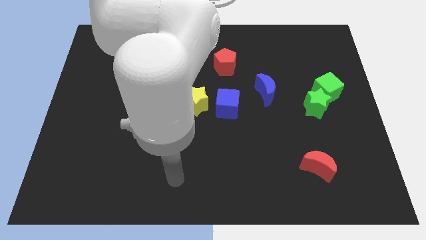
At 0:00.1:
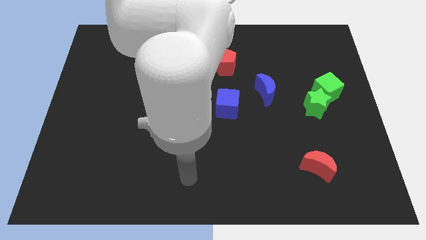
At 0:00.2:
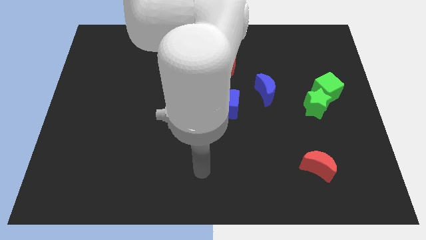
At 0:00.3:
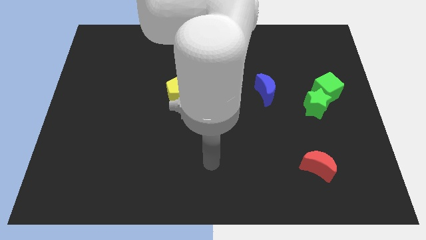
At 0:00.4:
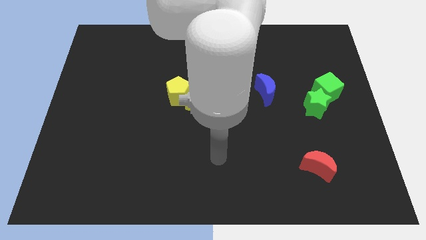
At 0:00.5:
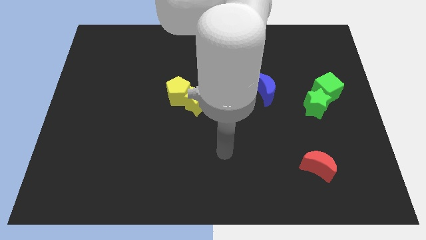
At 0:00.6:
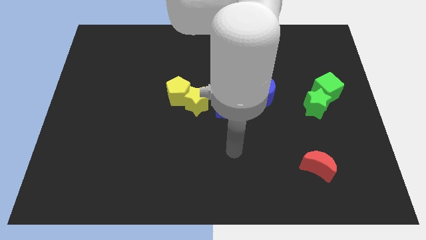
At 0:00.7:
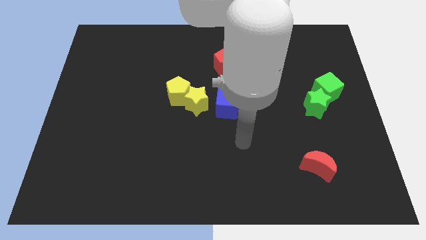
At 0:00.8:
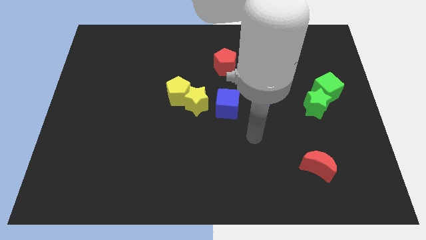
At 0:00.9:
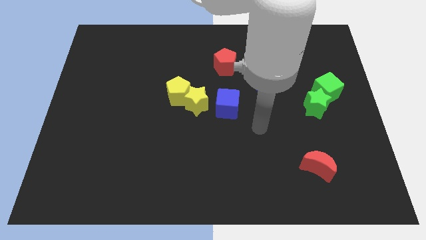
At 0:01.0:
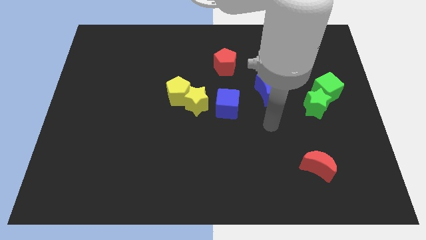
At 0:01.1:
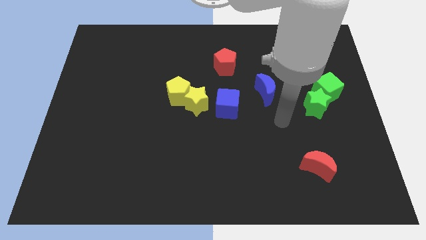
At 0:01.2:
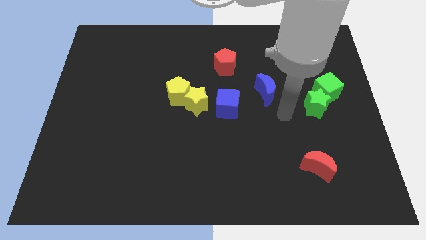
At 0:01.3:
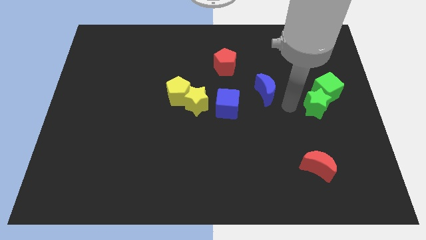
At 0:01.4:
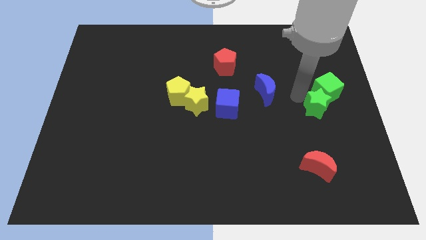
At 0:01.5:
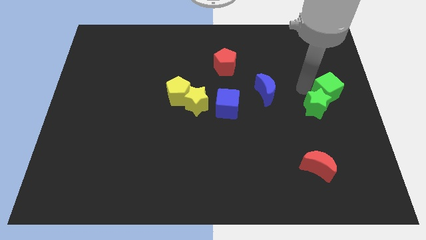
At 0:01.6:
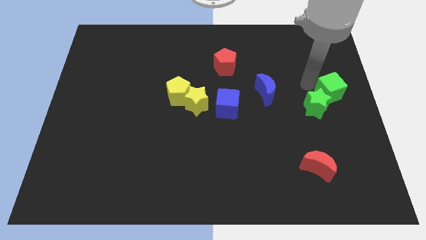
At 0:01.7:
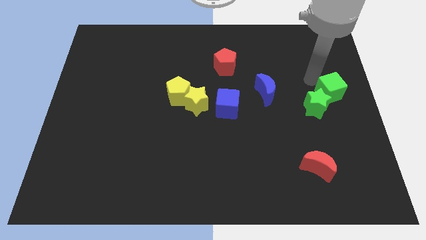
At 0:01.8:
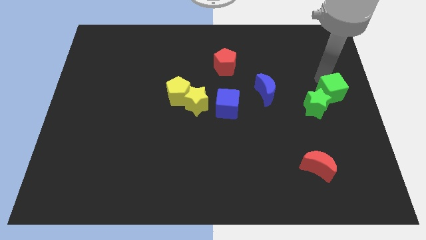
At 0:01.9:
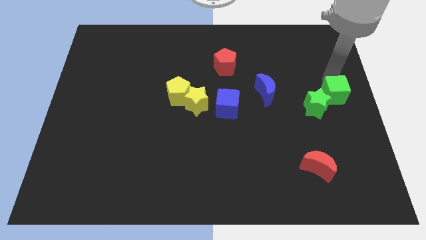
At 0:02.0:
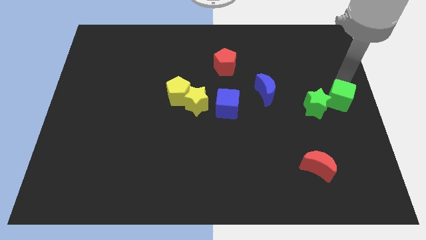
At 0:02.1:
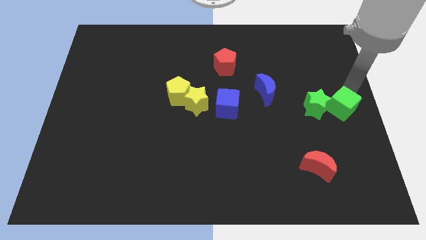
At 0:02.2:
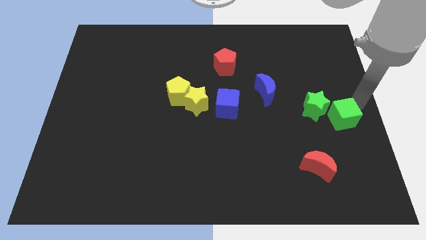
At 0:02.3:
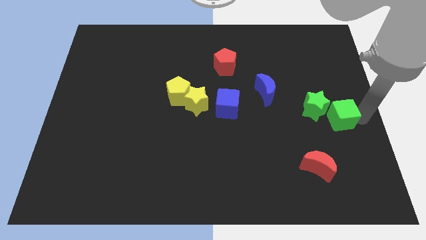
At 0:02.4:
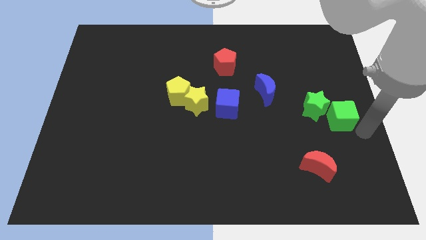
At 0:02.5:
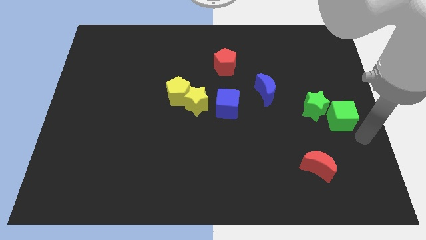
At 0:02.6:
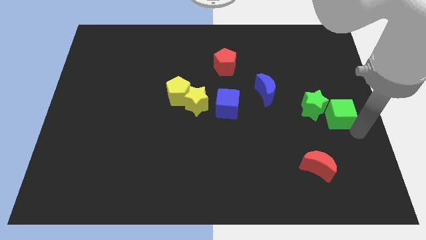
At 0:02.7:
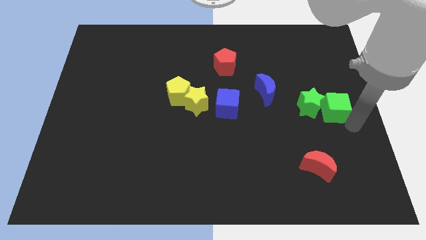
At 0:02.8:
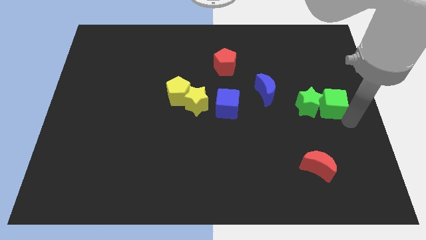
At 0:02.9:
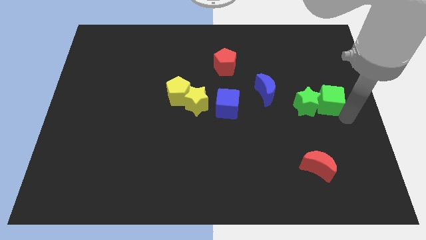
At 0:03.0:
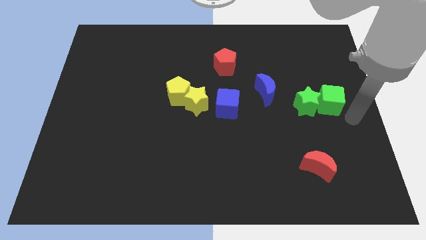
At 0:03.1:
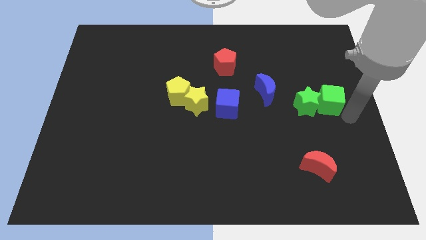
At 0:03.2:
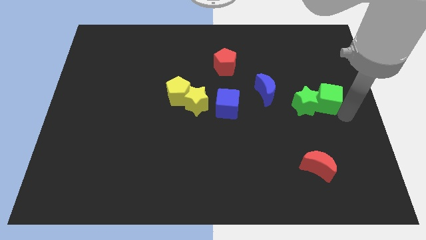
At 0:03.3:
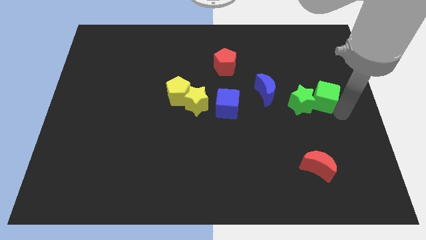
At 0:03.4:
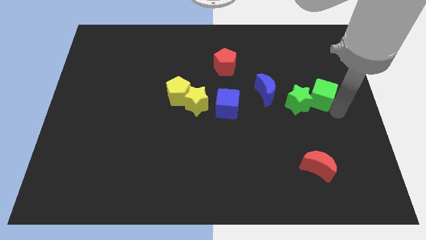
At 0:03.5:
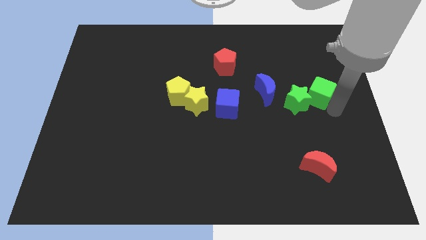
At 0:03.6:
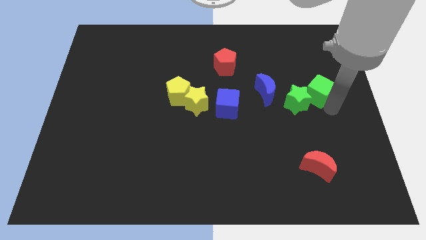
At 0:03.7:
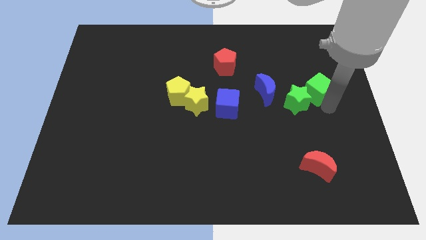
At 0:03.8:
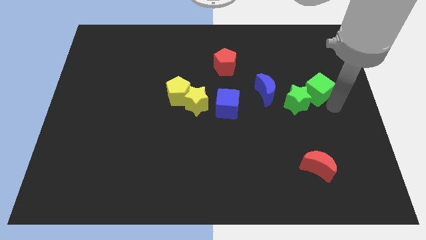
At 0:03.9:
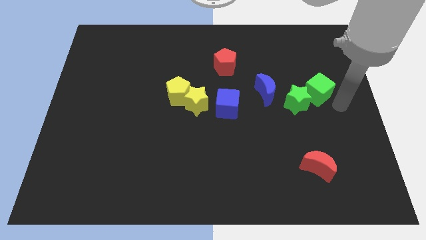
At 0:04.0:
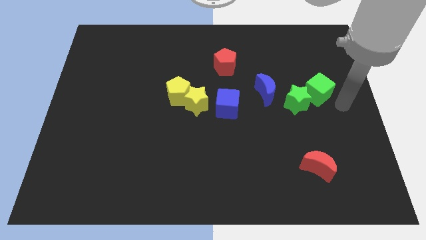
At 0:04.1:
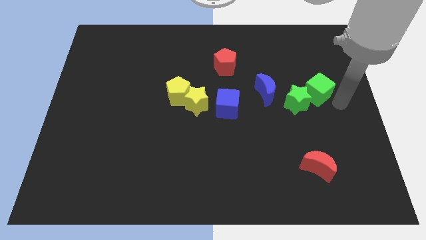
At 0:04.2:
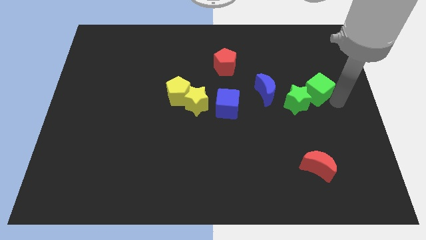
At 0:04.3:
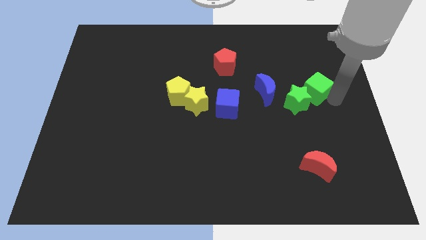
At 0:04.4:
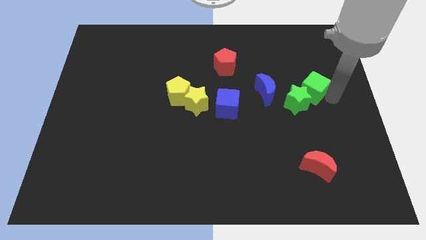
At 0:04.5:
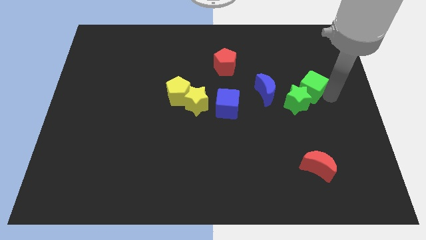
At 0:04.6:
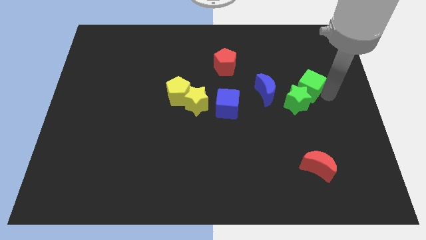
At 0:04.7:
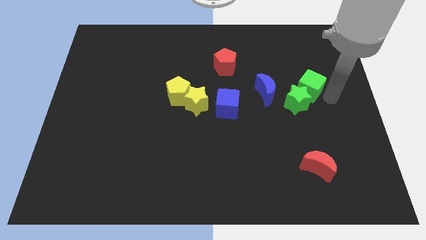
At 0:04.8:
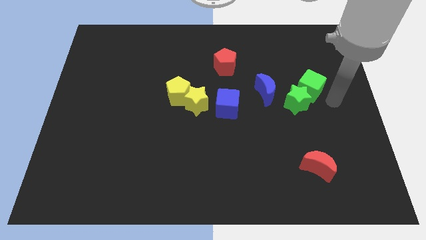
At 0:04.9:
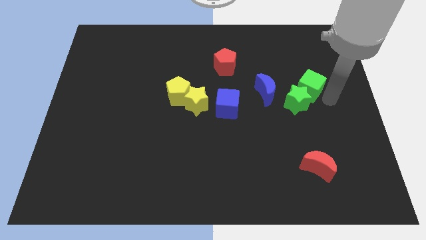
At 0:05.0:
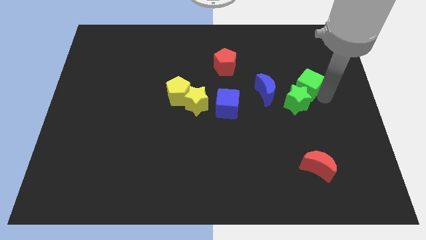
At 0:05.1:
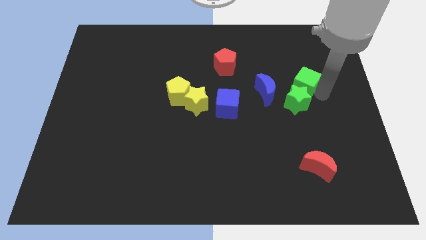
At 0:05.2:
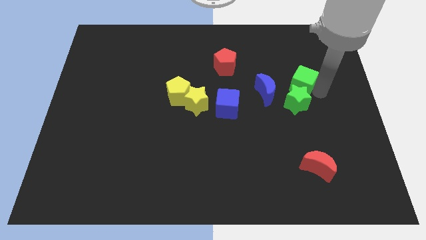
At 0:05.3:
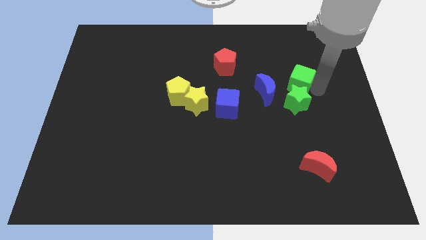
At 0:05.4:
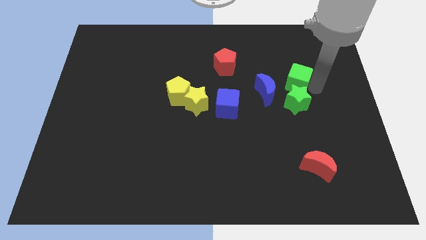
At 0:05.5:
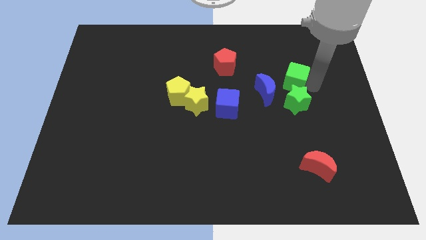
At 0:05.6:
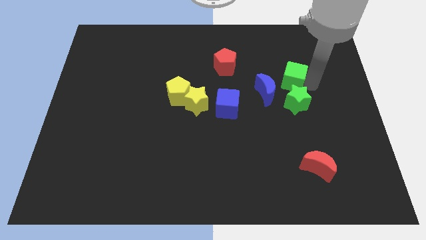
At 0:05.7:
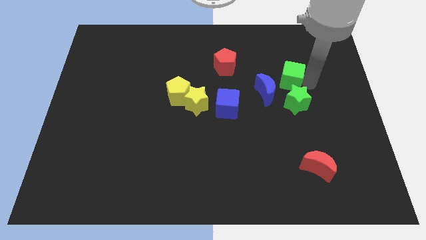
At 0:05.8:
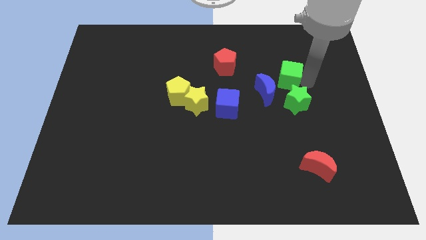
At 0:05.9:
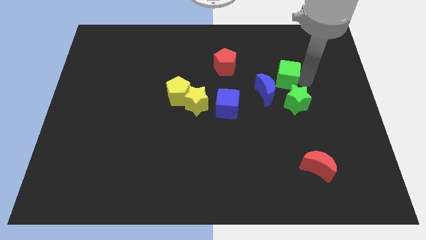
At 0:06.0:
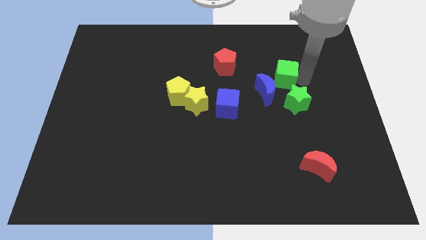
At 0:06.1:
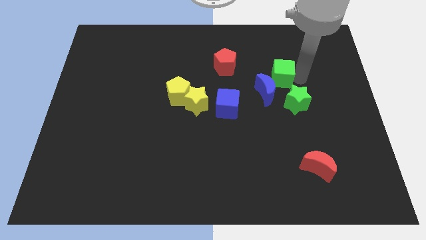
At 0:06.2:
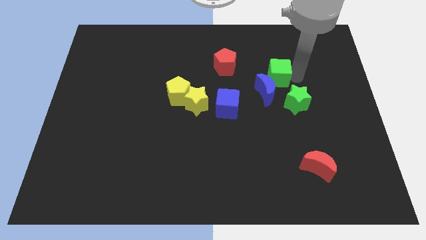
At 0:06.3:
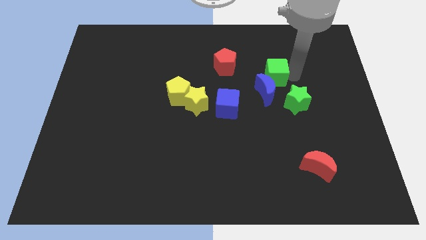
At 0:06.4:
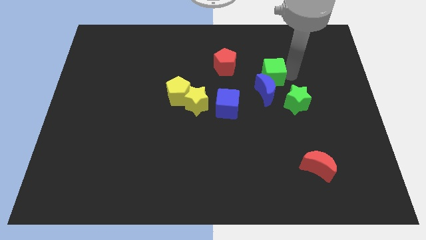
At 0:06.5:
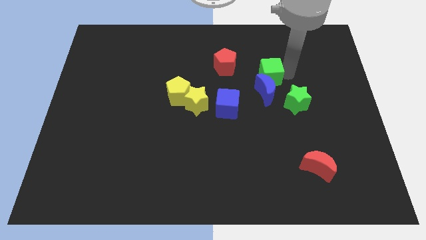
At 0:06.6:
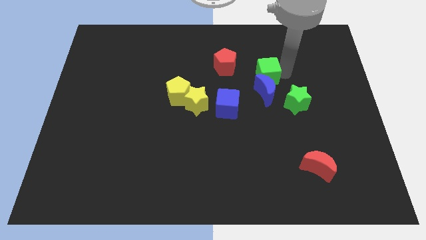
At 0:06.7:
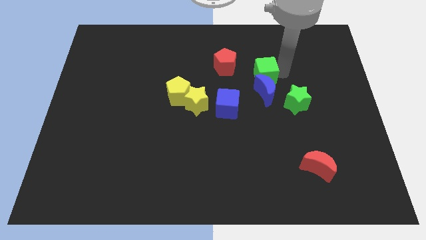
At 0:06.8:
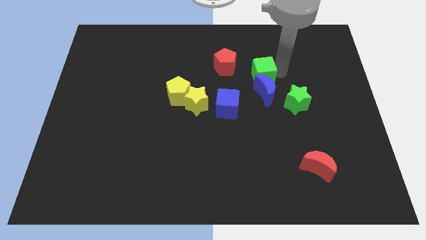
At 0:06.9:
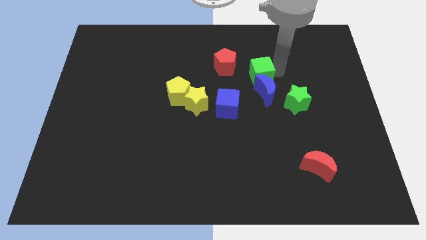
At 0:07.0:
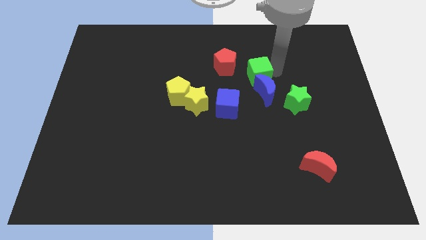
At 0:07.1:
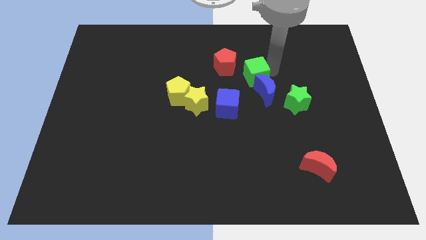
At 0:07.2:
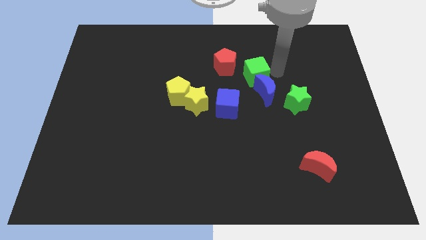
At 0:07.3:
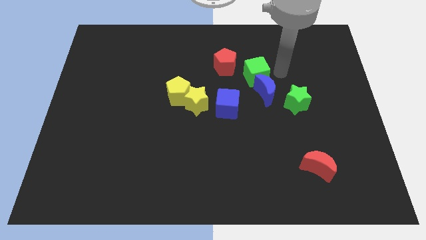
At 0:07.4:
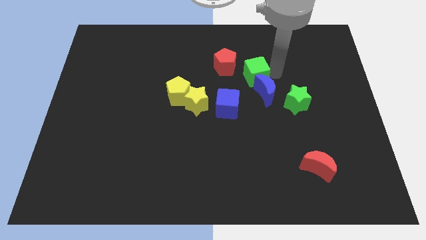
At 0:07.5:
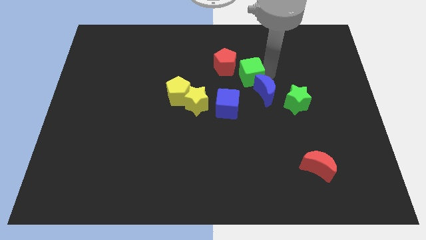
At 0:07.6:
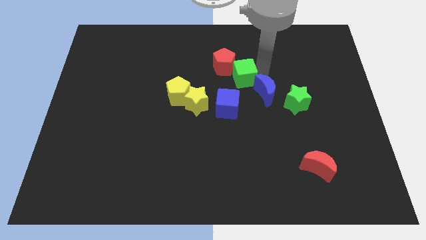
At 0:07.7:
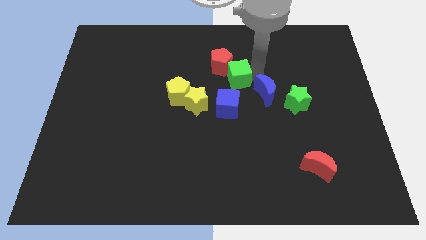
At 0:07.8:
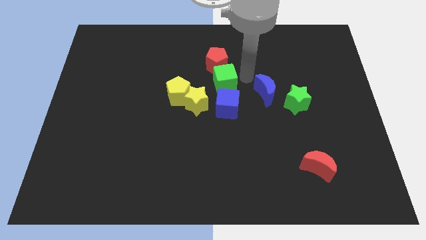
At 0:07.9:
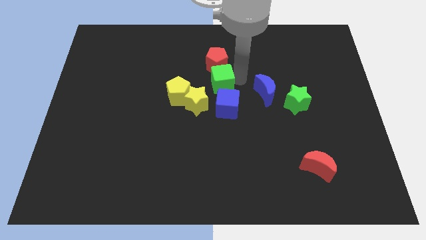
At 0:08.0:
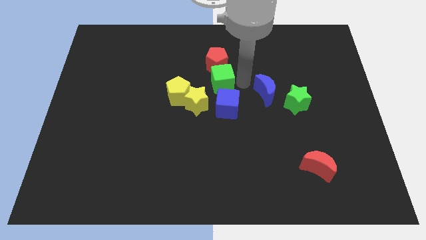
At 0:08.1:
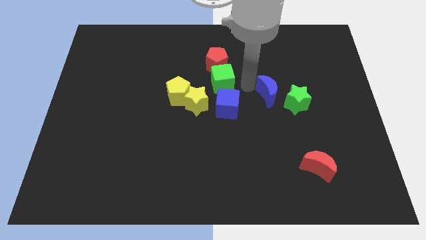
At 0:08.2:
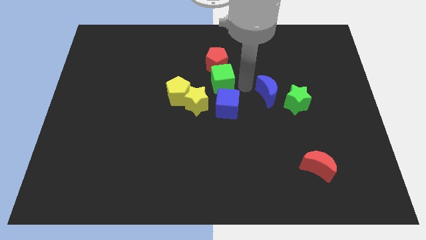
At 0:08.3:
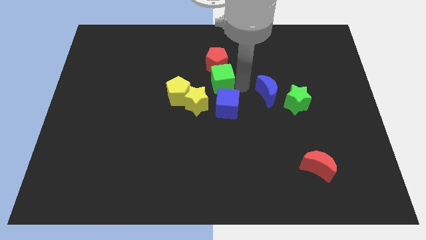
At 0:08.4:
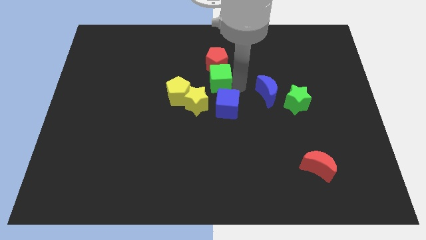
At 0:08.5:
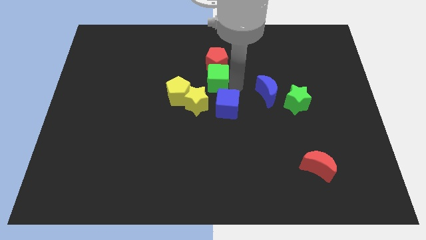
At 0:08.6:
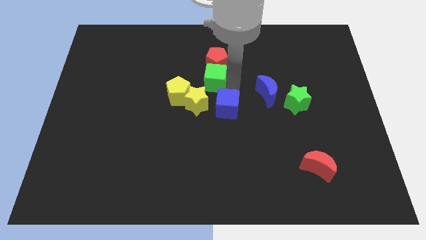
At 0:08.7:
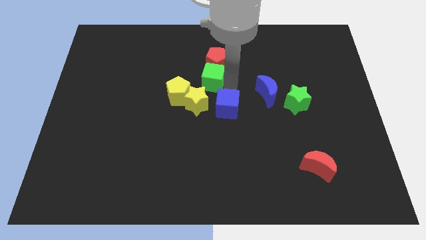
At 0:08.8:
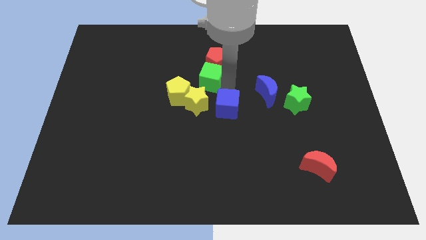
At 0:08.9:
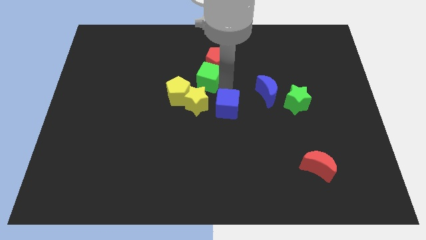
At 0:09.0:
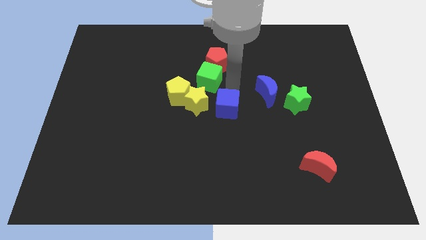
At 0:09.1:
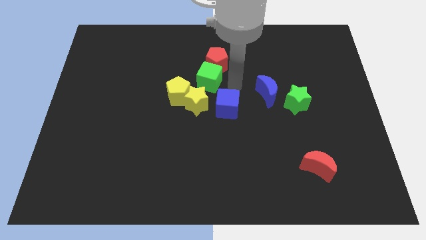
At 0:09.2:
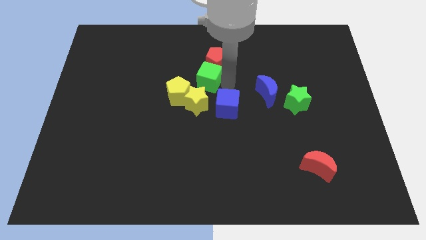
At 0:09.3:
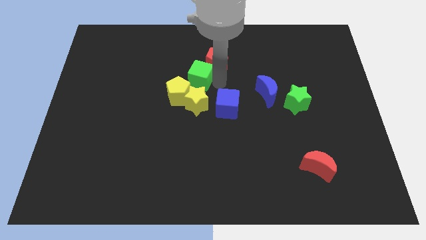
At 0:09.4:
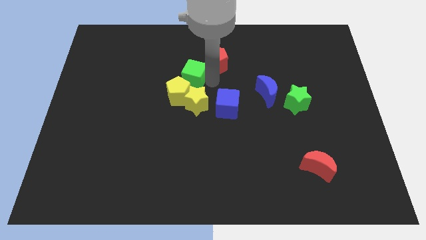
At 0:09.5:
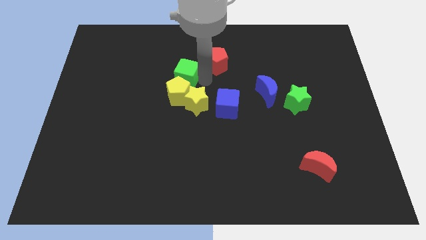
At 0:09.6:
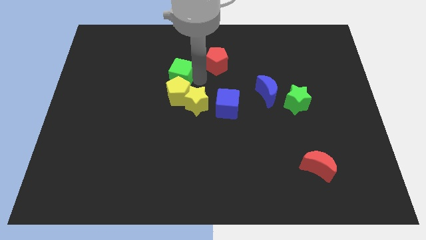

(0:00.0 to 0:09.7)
put the green cube to the top left of the yellow pentagon
